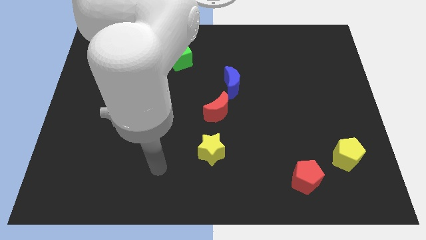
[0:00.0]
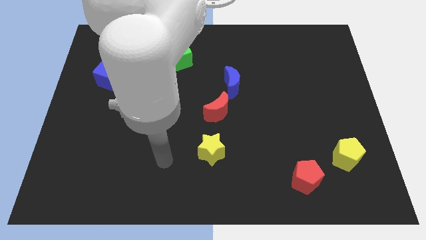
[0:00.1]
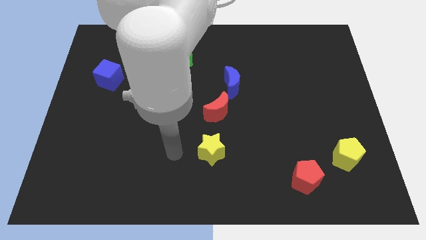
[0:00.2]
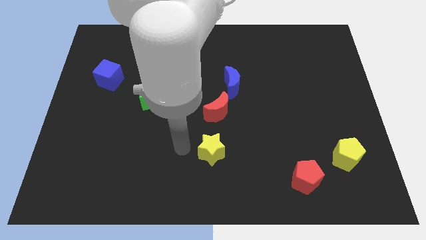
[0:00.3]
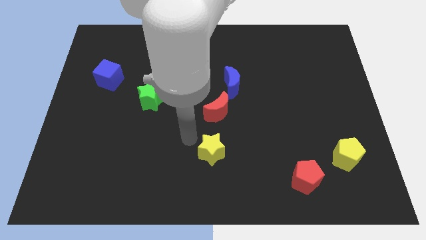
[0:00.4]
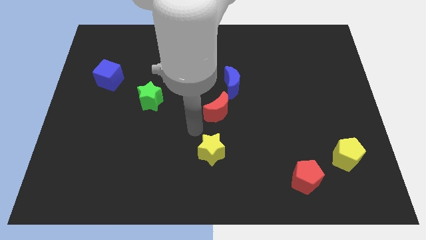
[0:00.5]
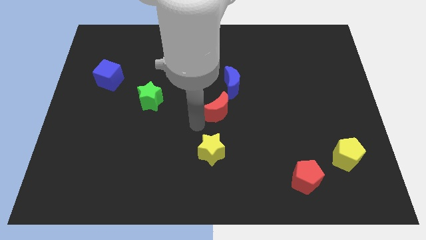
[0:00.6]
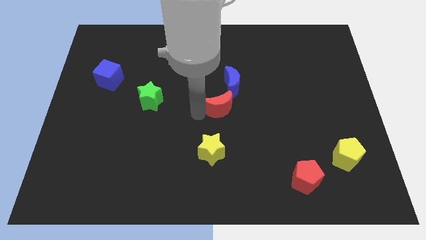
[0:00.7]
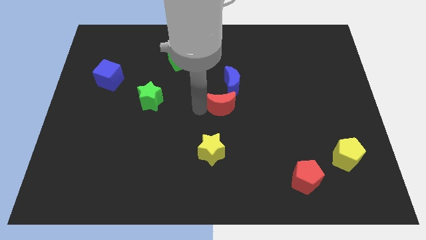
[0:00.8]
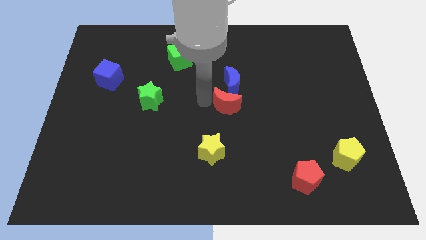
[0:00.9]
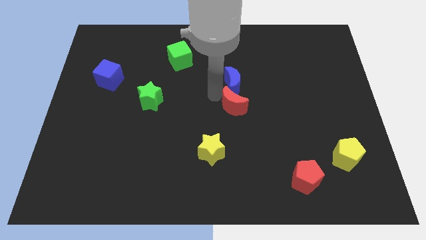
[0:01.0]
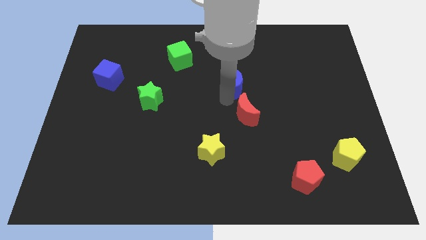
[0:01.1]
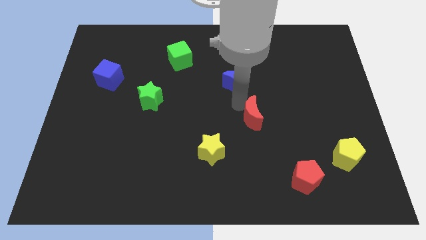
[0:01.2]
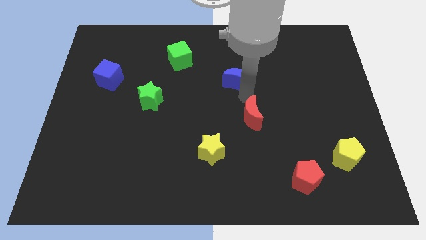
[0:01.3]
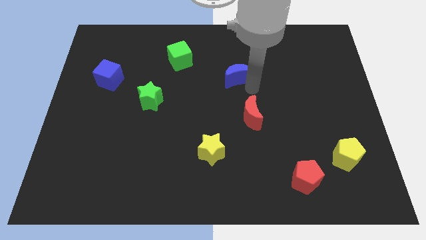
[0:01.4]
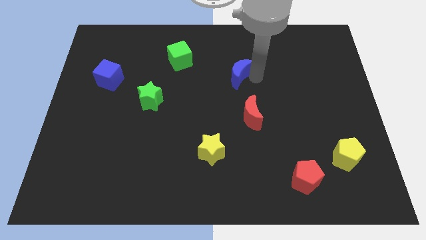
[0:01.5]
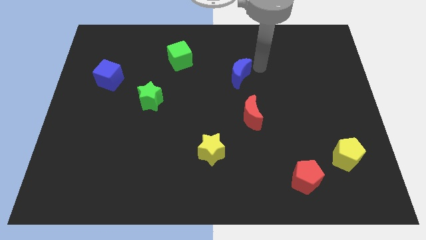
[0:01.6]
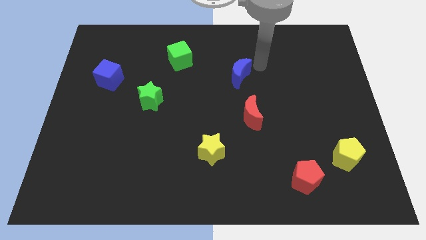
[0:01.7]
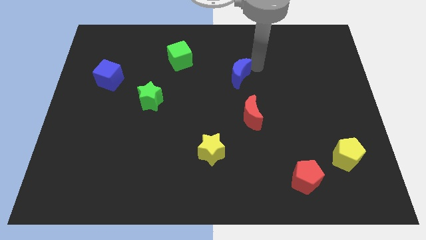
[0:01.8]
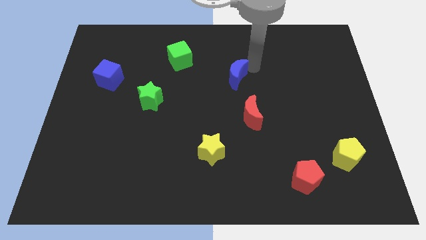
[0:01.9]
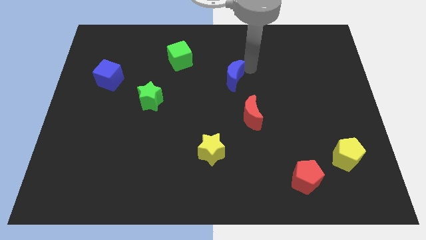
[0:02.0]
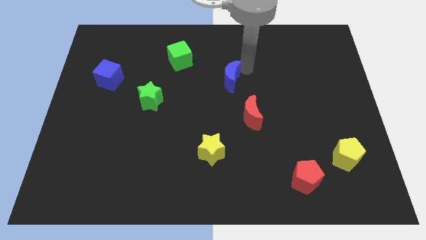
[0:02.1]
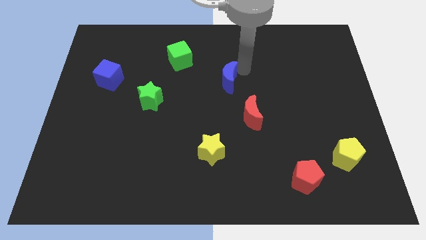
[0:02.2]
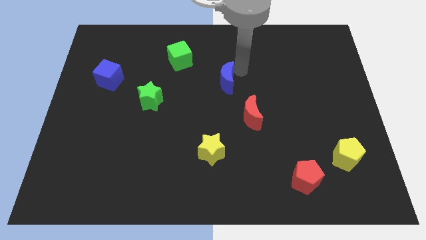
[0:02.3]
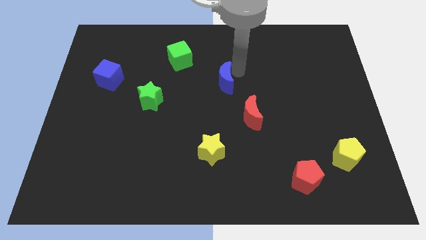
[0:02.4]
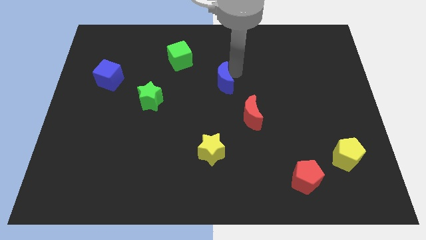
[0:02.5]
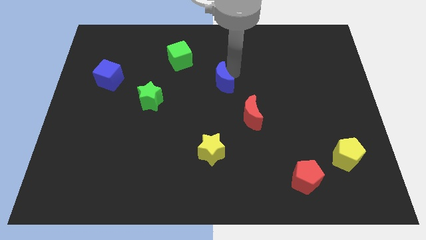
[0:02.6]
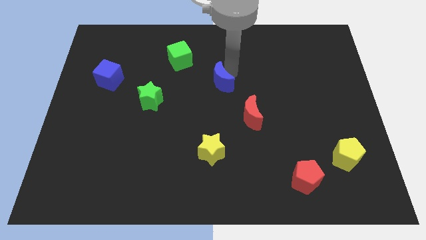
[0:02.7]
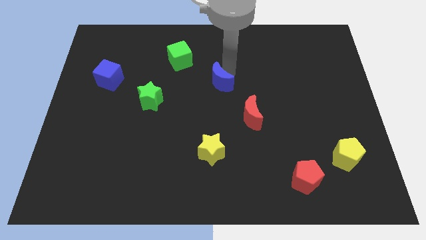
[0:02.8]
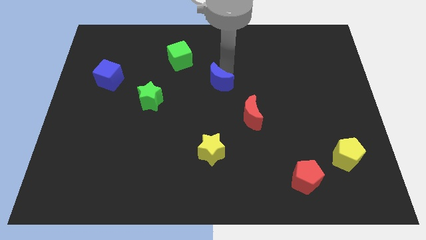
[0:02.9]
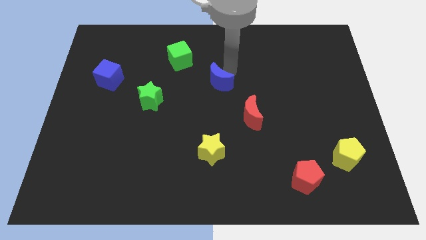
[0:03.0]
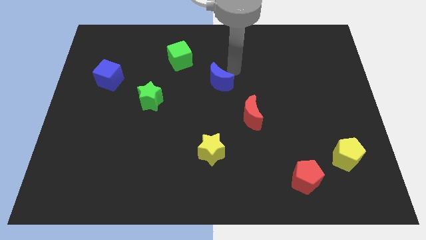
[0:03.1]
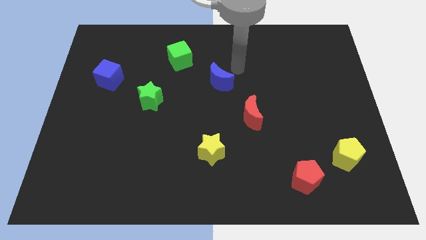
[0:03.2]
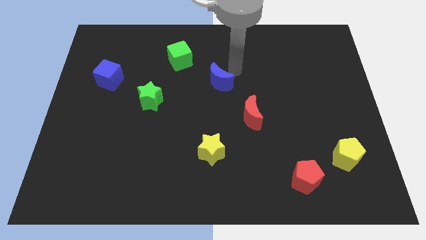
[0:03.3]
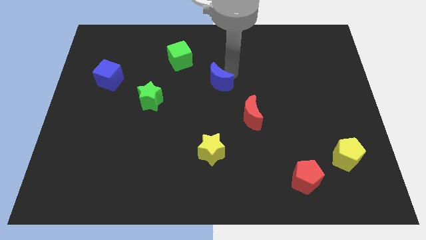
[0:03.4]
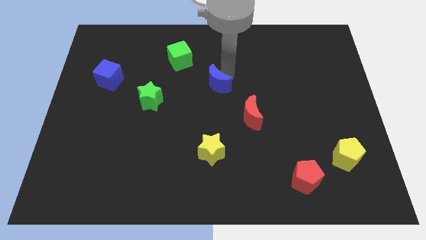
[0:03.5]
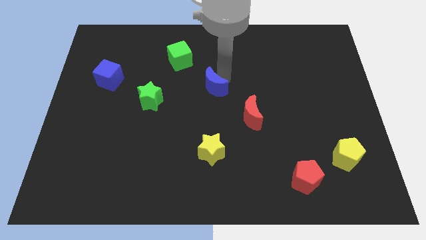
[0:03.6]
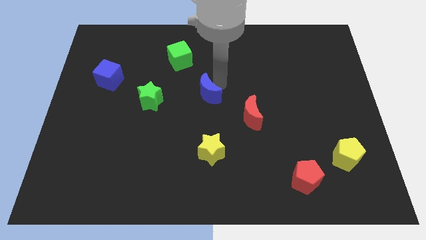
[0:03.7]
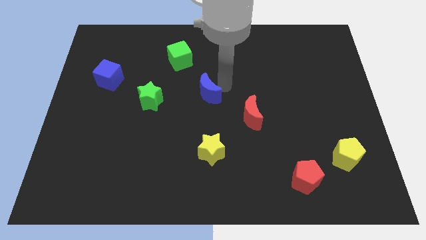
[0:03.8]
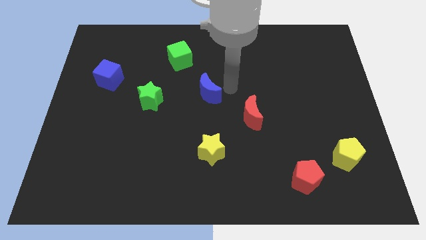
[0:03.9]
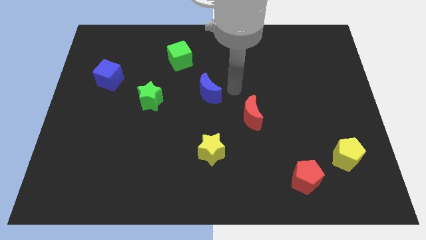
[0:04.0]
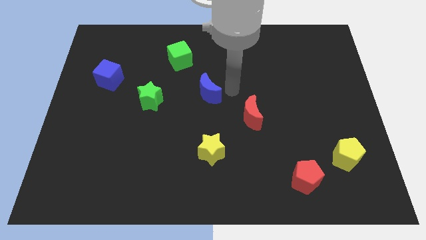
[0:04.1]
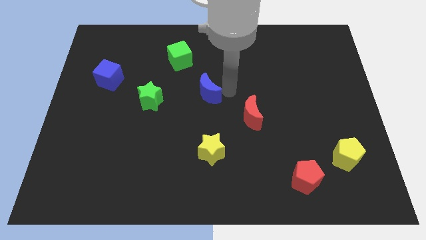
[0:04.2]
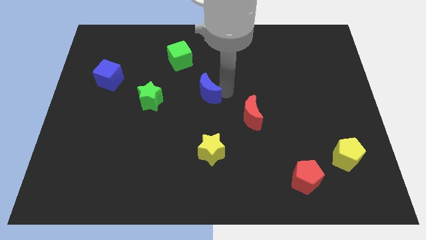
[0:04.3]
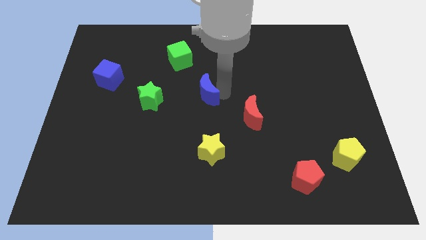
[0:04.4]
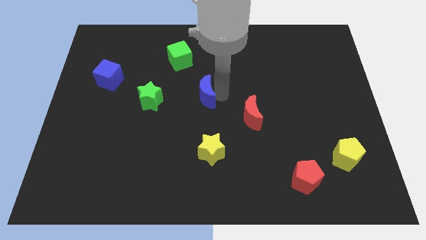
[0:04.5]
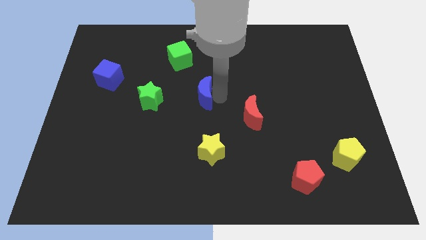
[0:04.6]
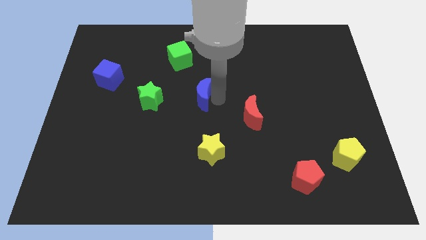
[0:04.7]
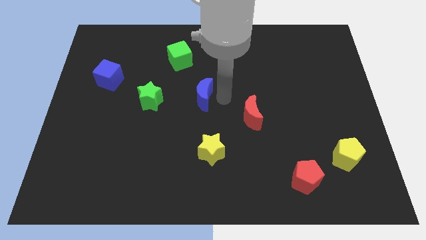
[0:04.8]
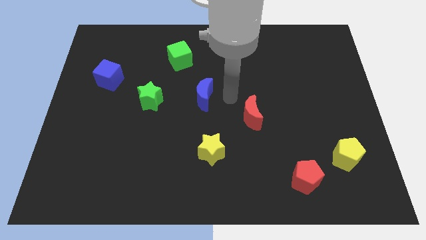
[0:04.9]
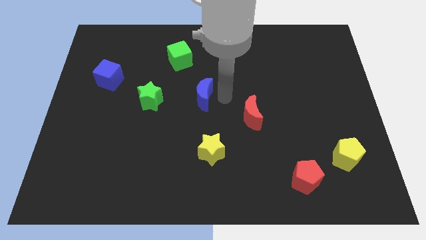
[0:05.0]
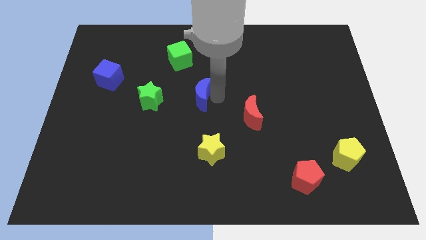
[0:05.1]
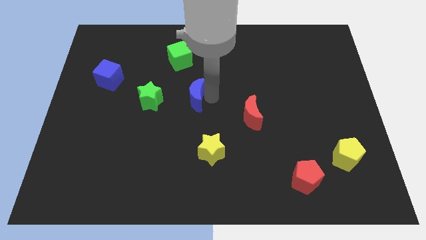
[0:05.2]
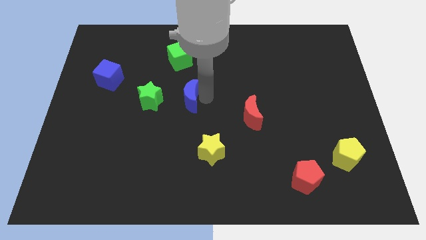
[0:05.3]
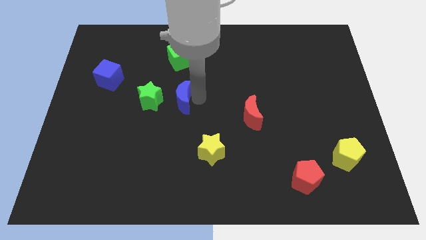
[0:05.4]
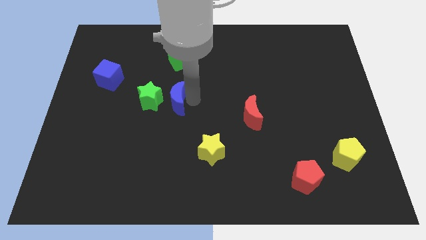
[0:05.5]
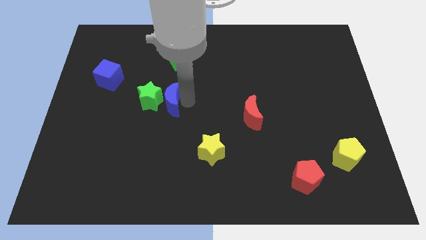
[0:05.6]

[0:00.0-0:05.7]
push the blue moon close to the green star
